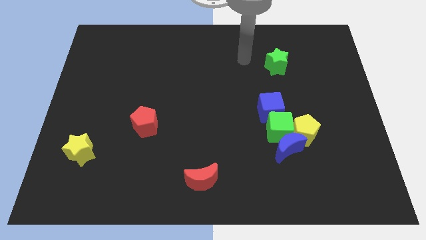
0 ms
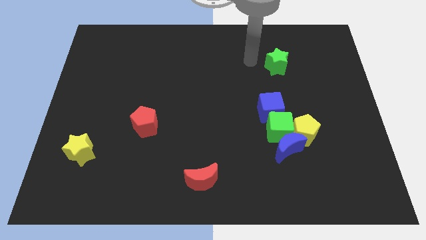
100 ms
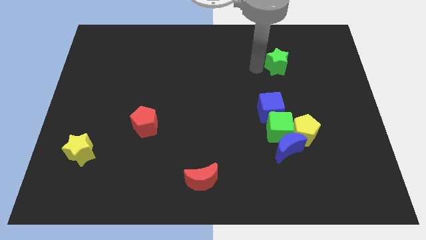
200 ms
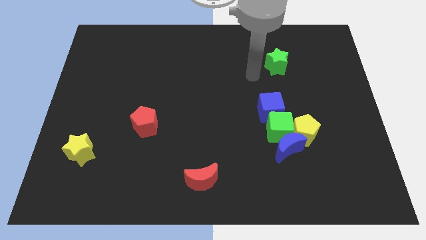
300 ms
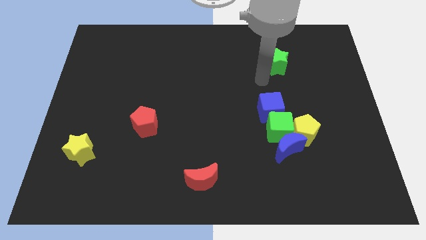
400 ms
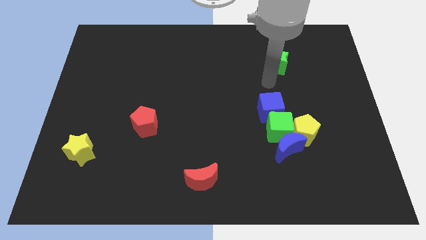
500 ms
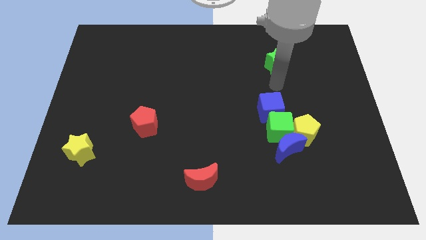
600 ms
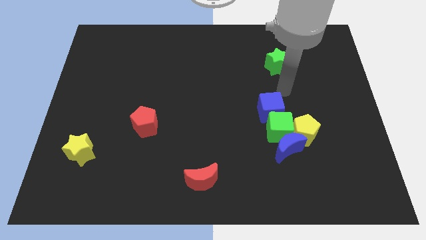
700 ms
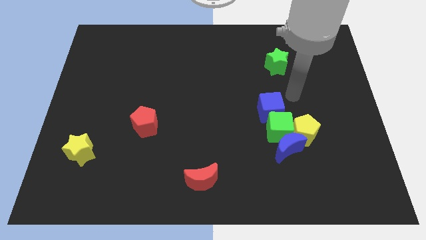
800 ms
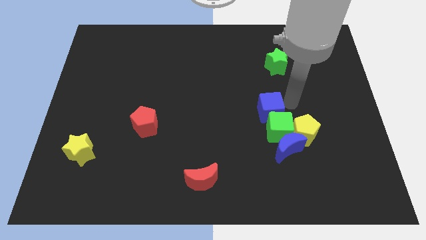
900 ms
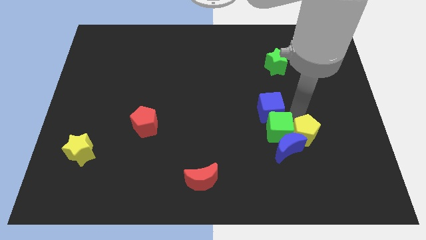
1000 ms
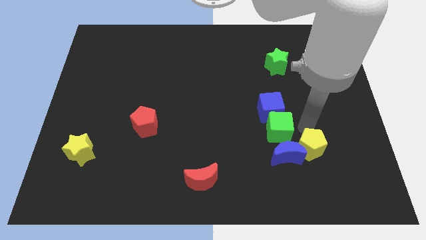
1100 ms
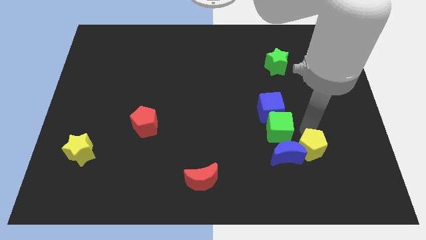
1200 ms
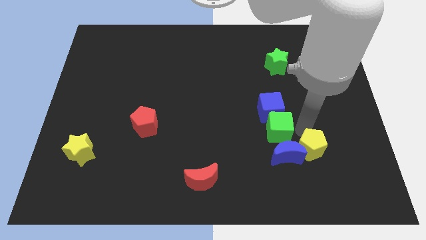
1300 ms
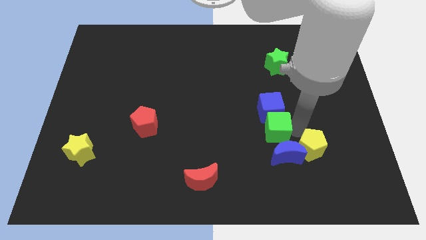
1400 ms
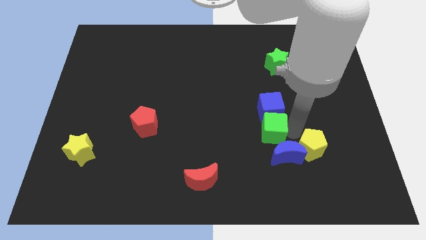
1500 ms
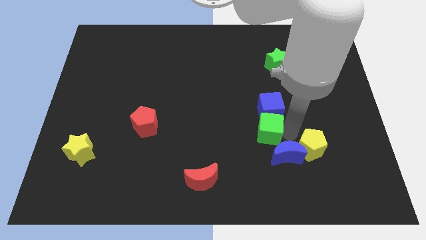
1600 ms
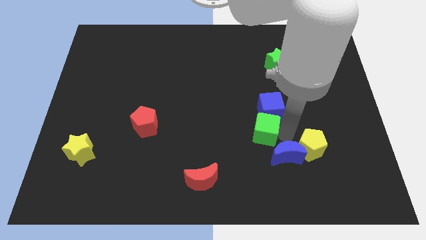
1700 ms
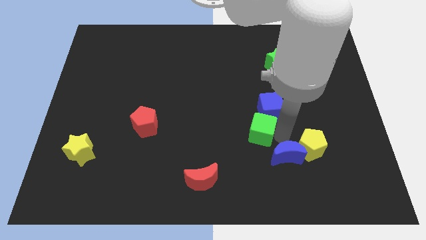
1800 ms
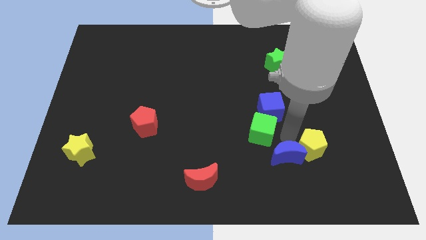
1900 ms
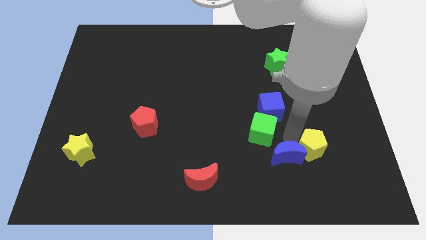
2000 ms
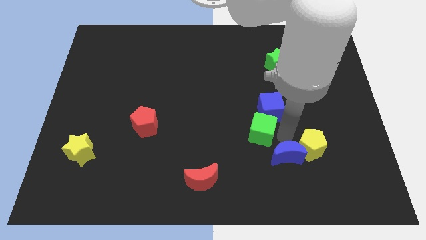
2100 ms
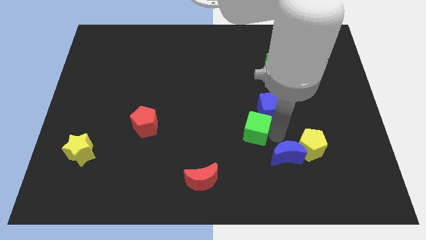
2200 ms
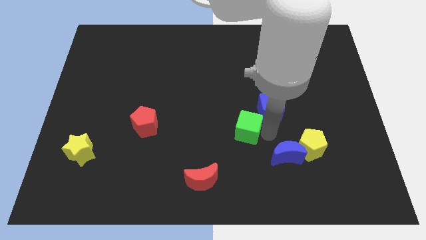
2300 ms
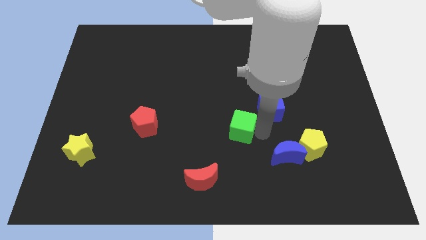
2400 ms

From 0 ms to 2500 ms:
separate the green cube from the group

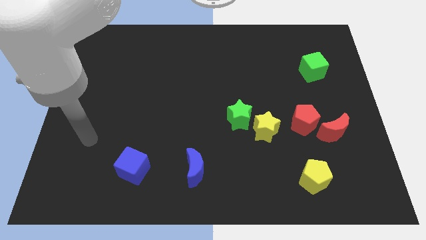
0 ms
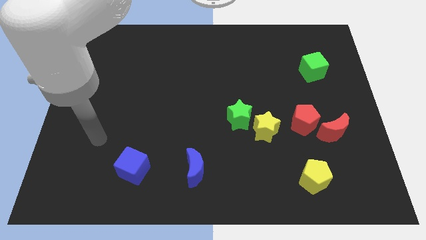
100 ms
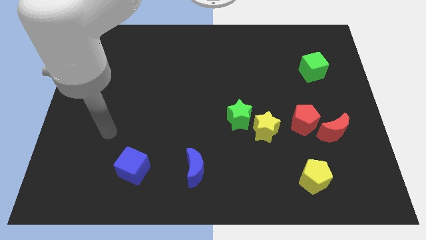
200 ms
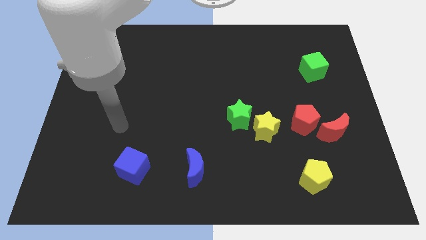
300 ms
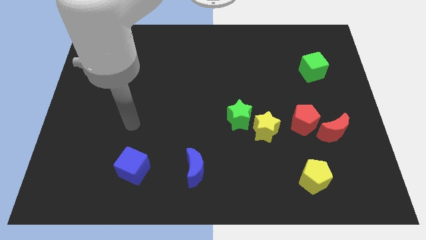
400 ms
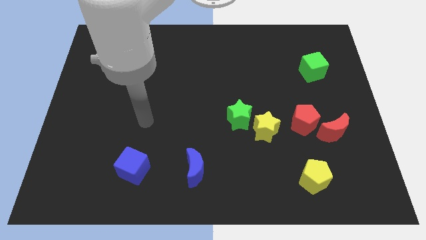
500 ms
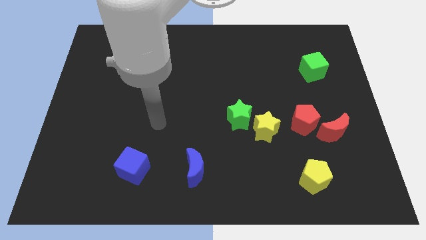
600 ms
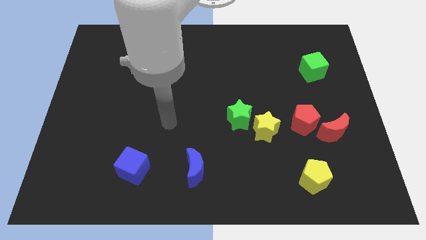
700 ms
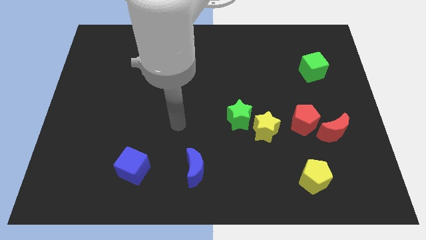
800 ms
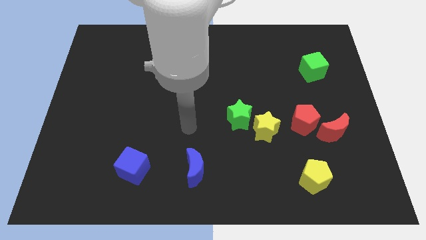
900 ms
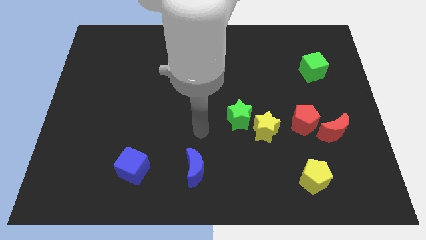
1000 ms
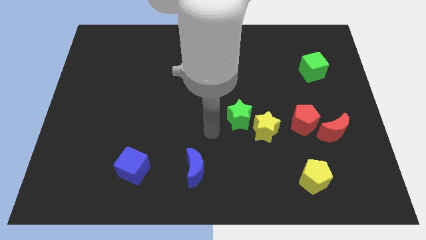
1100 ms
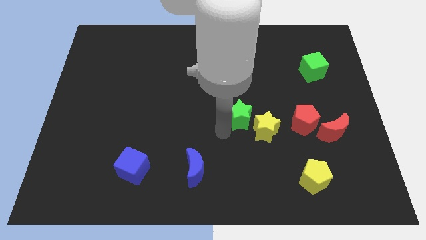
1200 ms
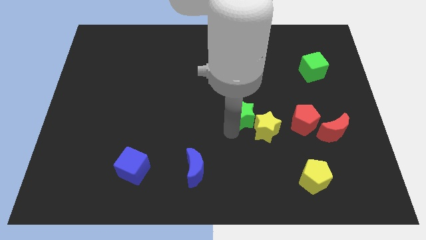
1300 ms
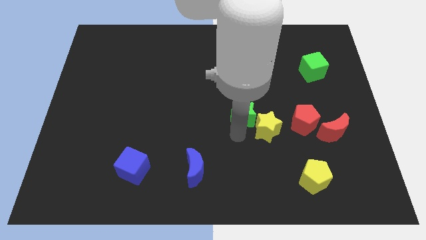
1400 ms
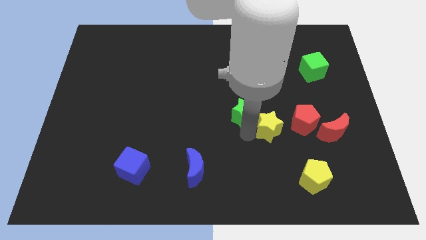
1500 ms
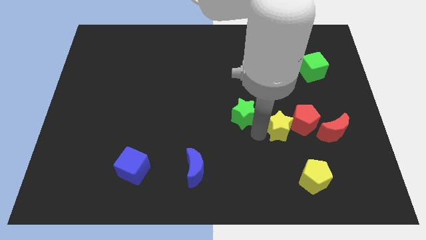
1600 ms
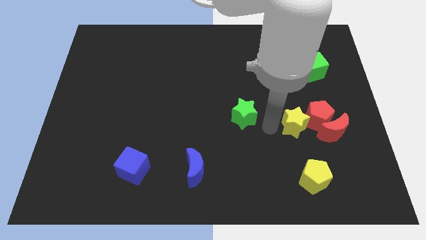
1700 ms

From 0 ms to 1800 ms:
move the green star away from the yellow star

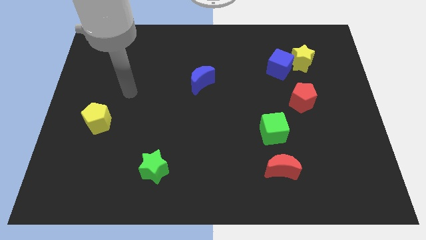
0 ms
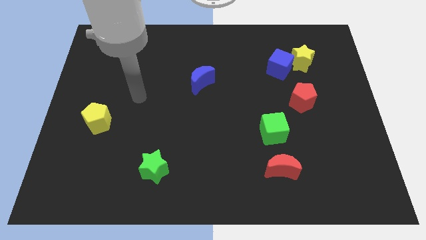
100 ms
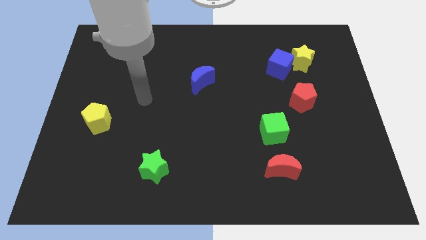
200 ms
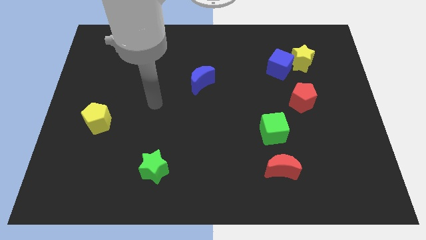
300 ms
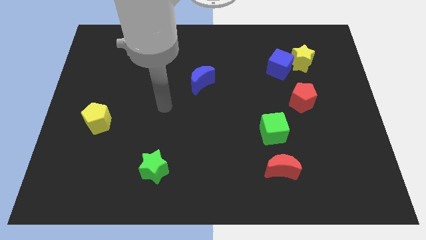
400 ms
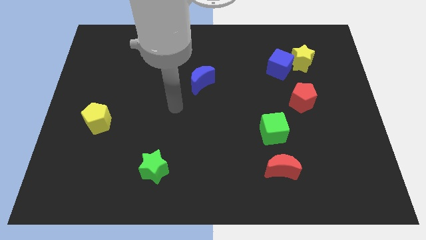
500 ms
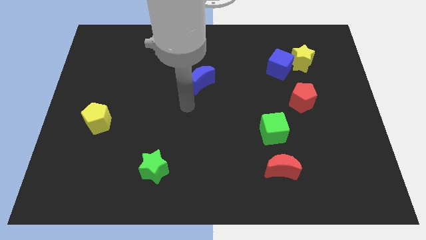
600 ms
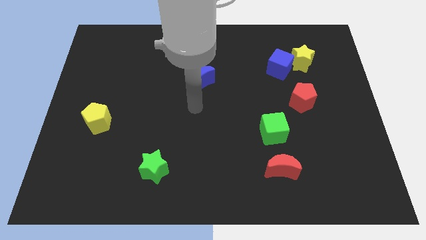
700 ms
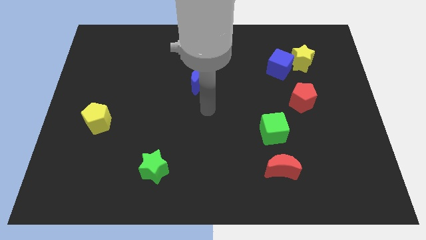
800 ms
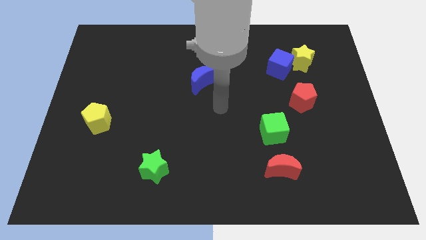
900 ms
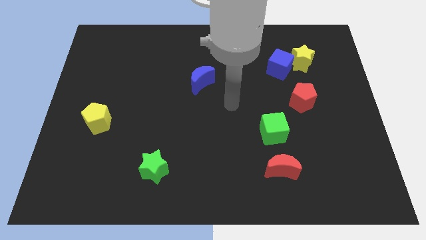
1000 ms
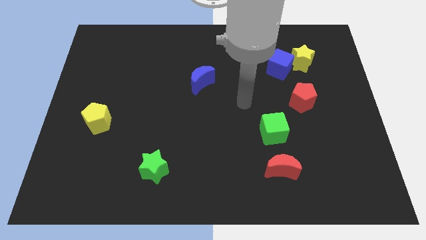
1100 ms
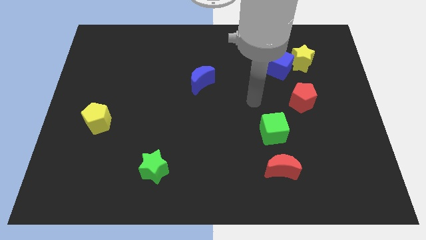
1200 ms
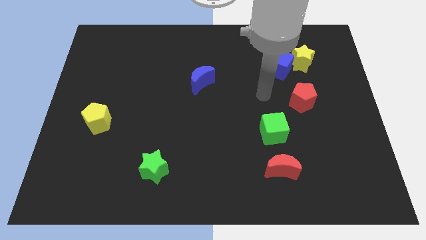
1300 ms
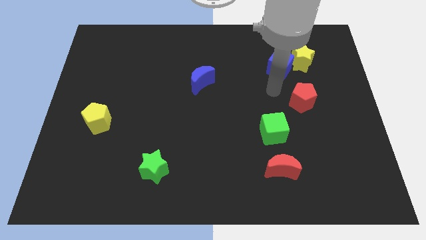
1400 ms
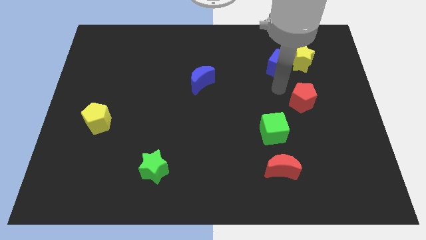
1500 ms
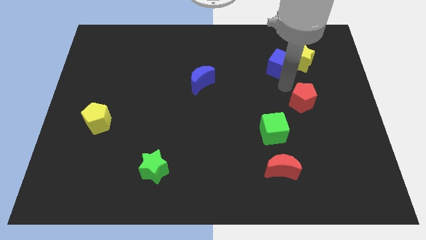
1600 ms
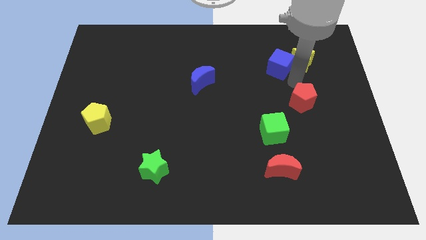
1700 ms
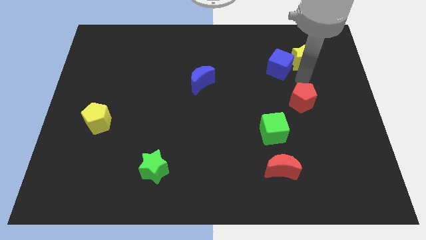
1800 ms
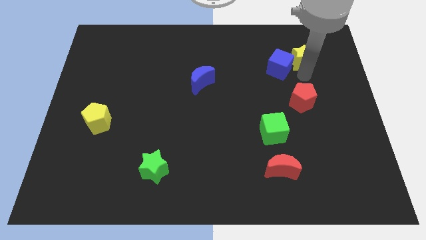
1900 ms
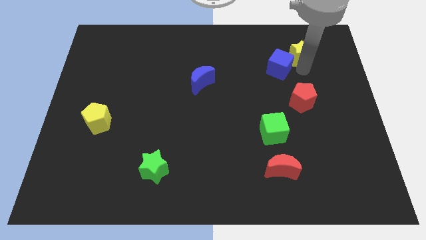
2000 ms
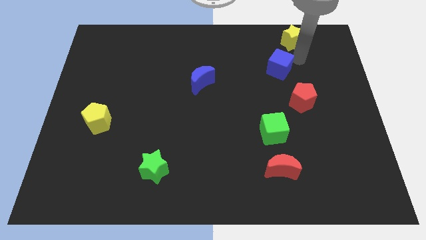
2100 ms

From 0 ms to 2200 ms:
separate the blue cube from the yellow star

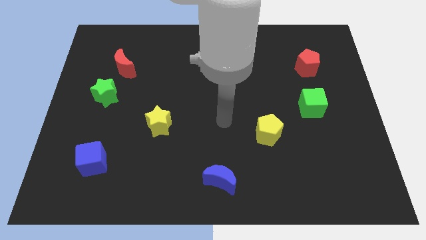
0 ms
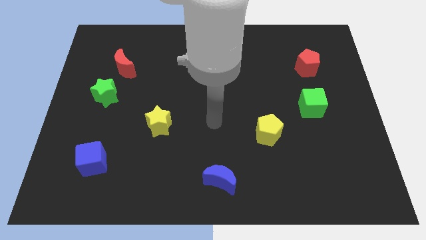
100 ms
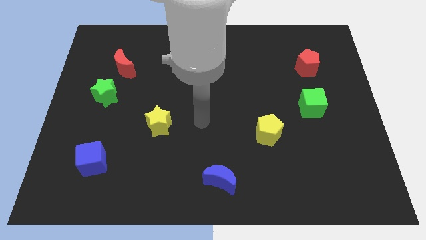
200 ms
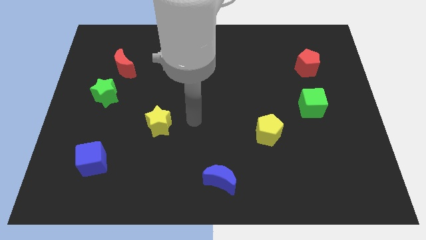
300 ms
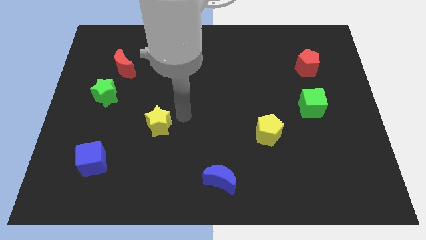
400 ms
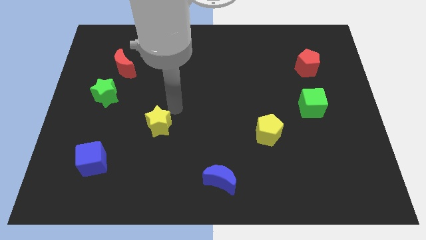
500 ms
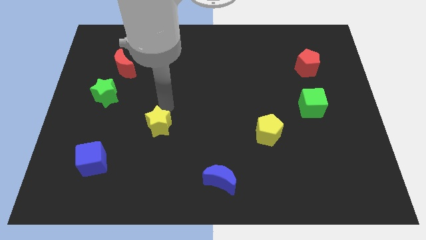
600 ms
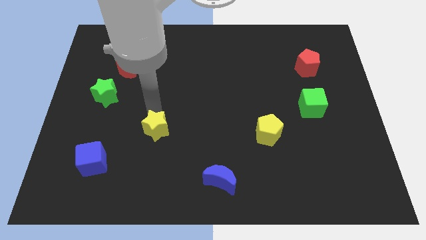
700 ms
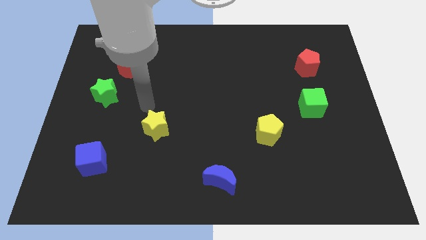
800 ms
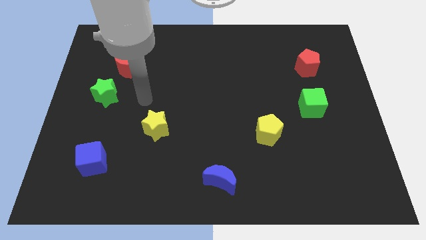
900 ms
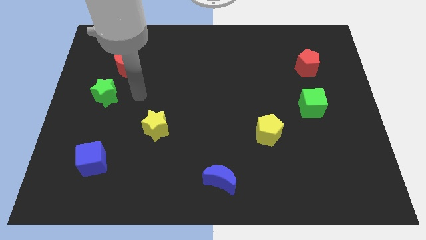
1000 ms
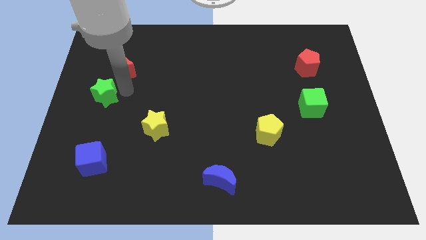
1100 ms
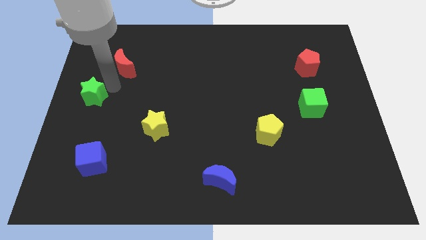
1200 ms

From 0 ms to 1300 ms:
move the red moon away from the green star

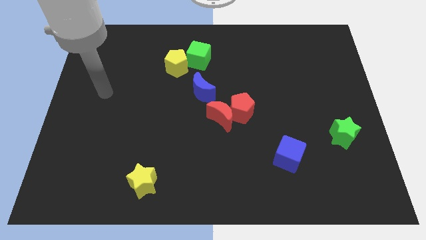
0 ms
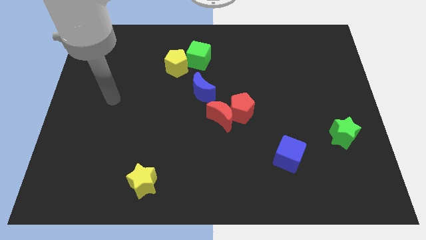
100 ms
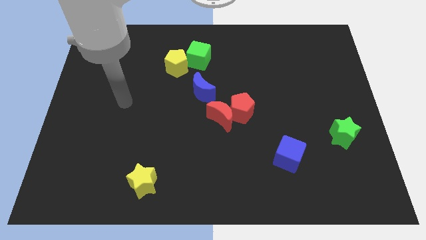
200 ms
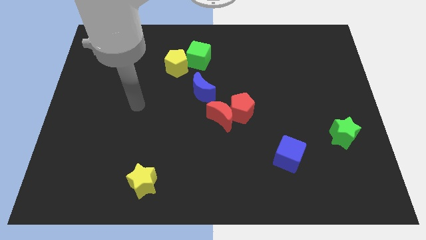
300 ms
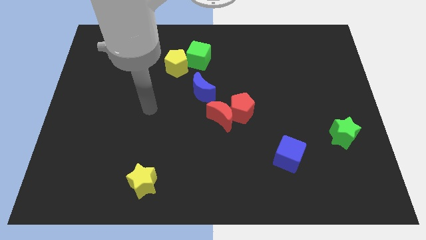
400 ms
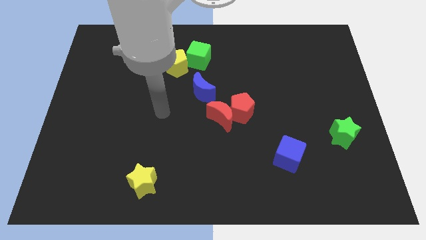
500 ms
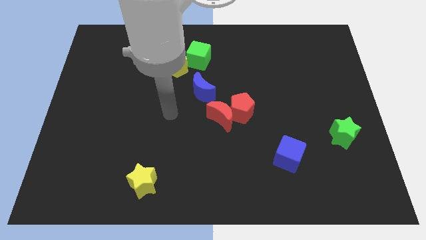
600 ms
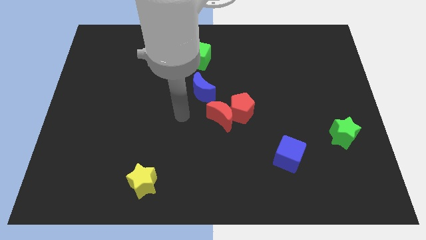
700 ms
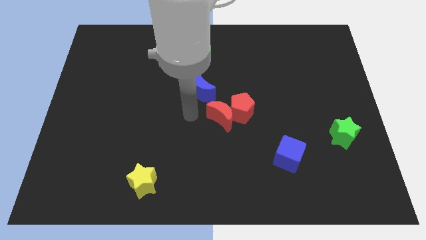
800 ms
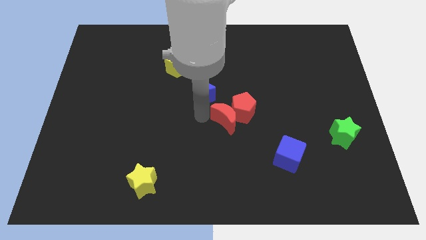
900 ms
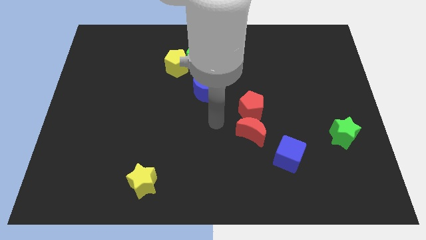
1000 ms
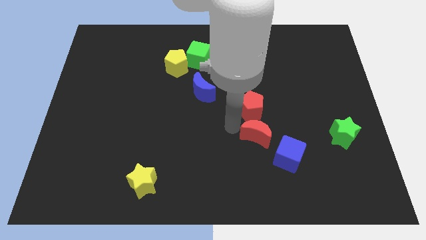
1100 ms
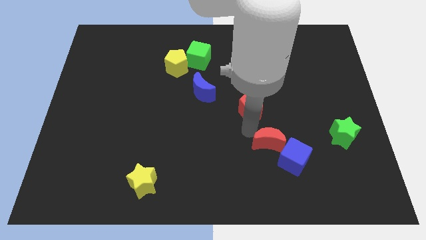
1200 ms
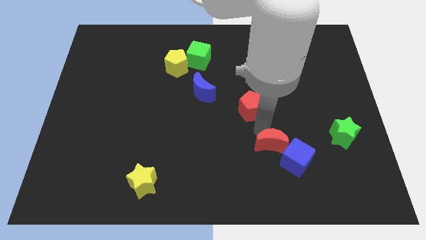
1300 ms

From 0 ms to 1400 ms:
pull the red pentagon apart from the red moon

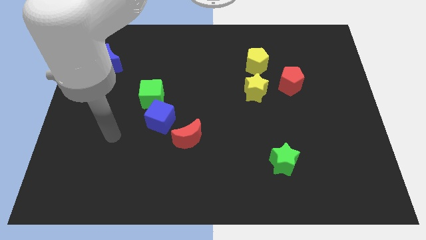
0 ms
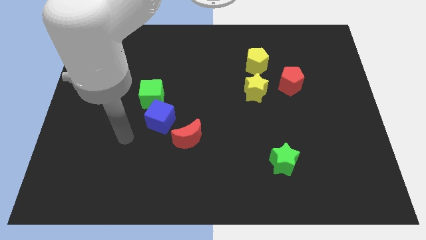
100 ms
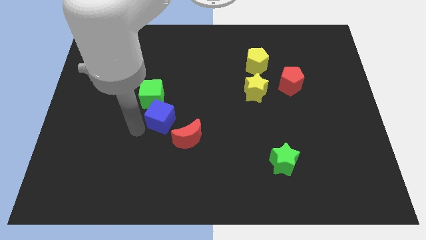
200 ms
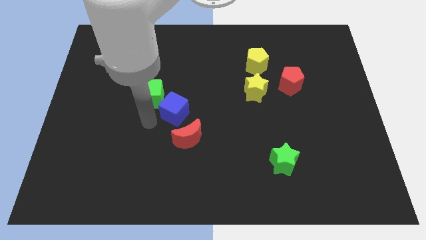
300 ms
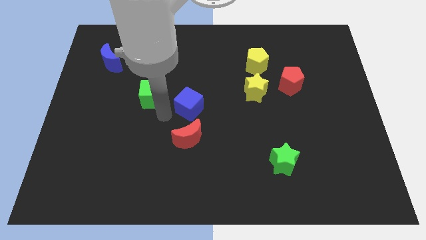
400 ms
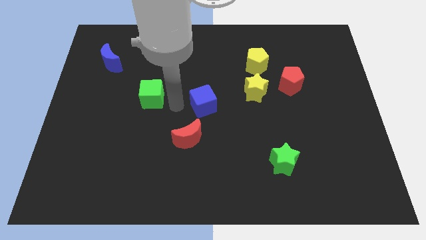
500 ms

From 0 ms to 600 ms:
move the green cube away from the blue cube
